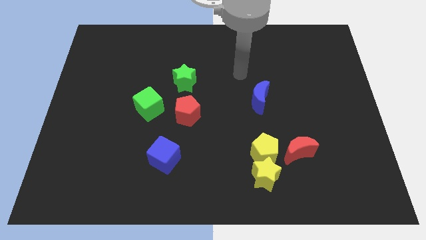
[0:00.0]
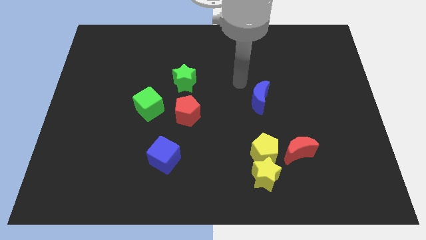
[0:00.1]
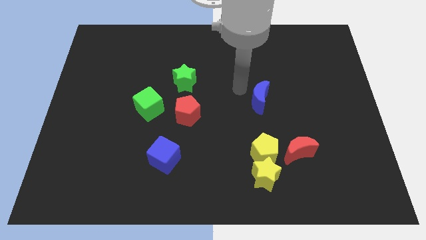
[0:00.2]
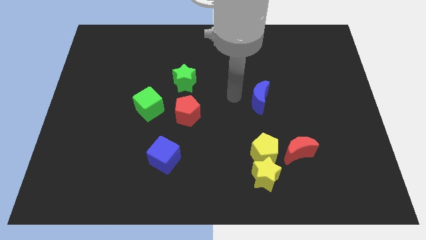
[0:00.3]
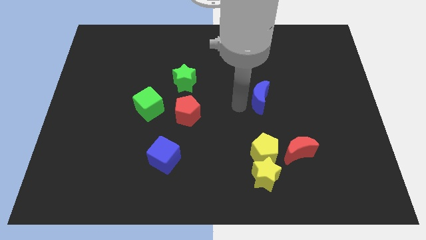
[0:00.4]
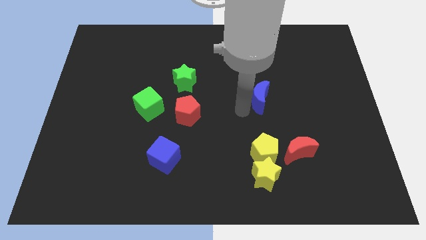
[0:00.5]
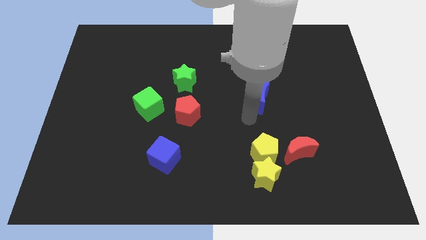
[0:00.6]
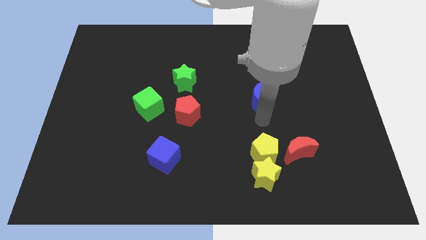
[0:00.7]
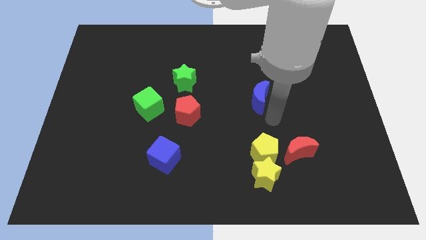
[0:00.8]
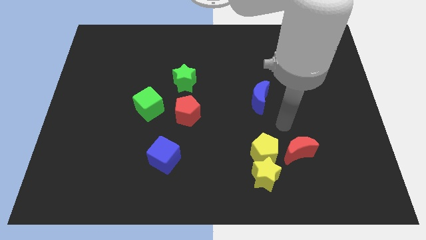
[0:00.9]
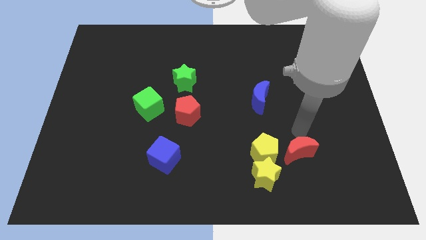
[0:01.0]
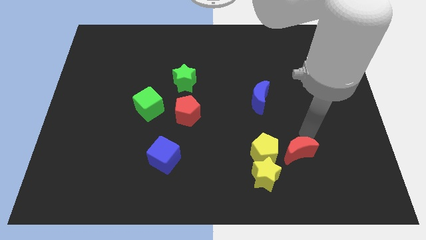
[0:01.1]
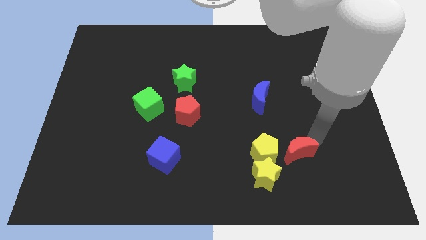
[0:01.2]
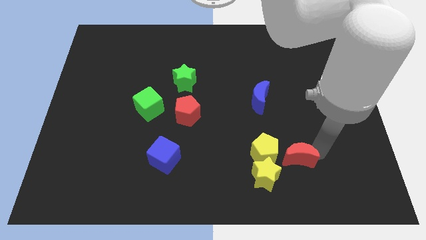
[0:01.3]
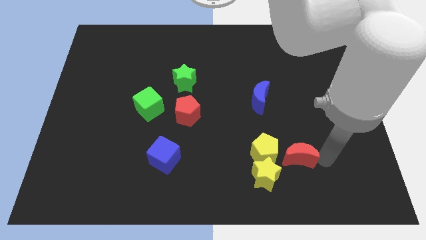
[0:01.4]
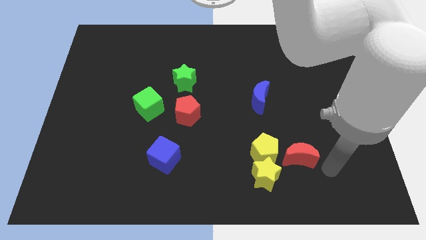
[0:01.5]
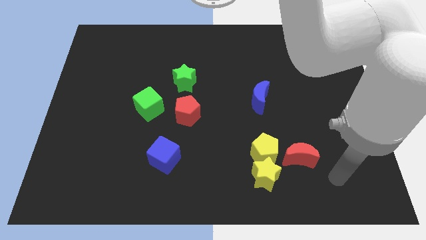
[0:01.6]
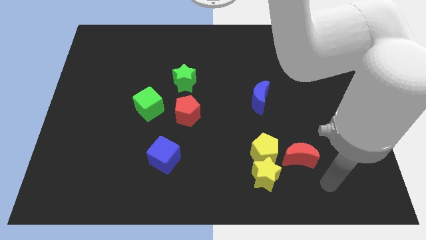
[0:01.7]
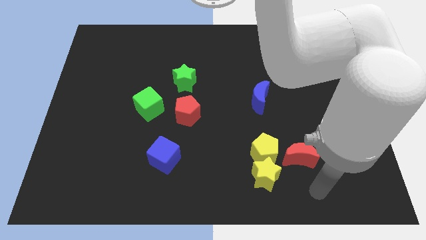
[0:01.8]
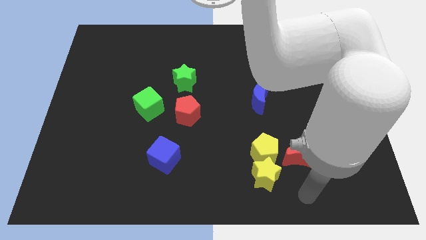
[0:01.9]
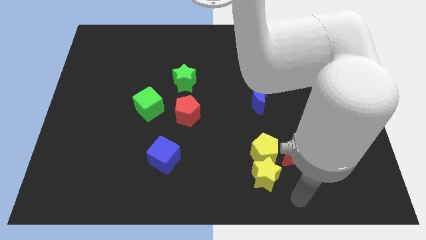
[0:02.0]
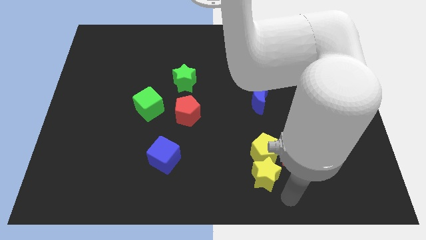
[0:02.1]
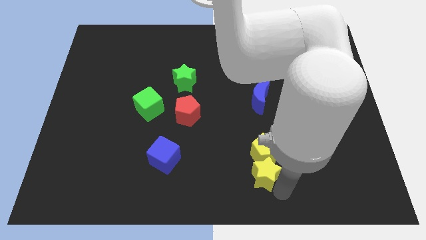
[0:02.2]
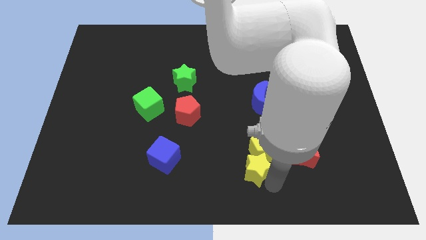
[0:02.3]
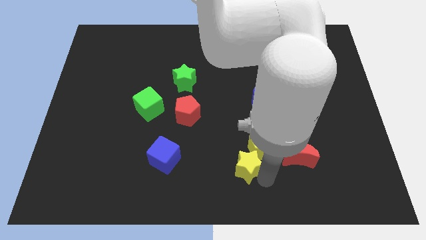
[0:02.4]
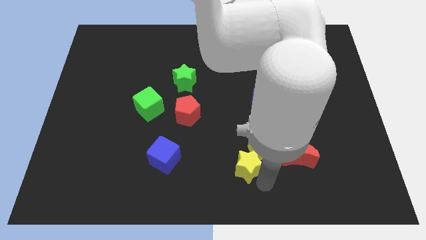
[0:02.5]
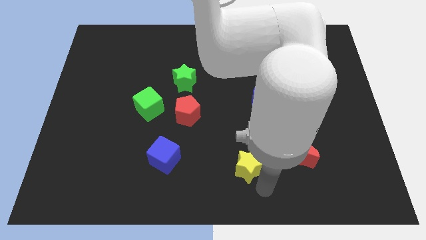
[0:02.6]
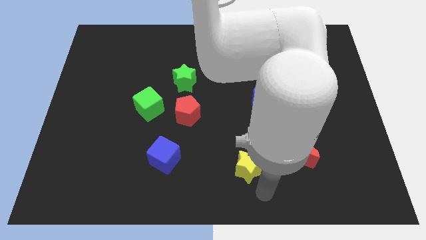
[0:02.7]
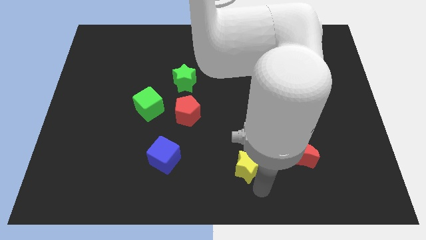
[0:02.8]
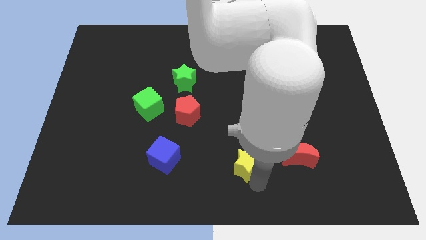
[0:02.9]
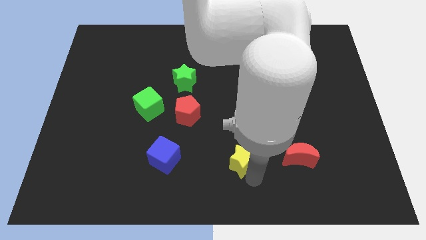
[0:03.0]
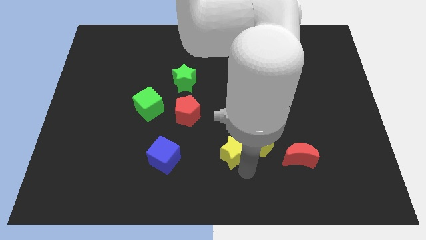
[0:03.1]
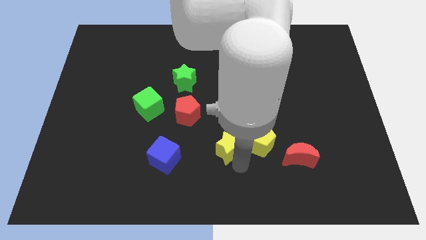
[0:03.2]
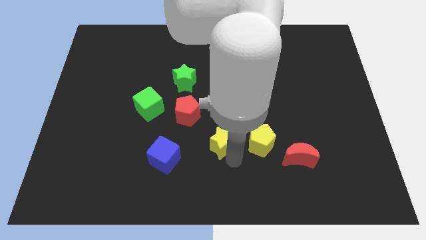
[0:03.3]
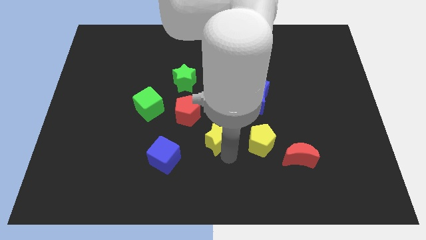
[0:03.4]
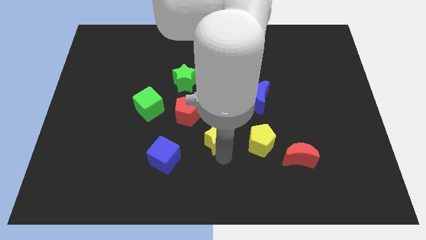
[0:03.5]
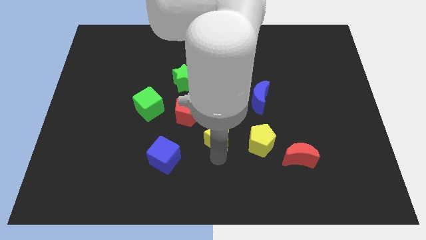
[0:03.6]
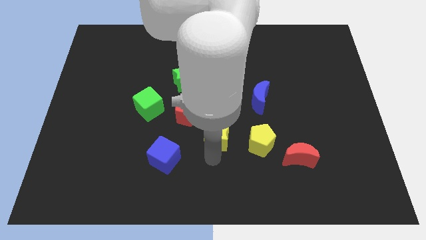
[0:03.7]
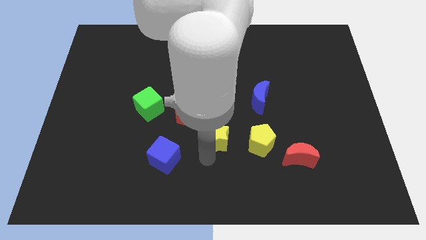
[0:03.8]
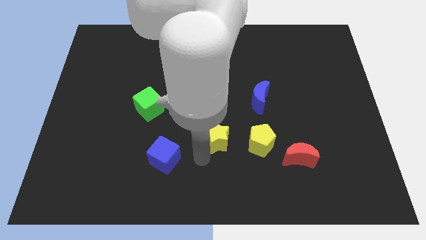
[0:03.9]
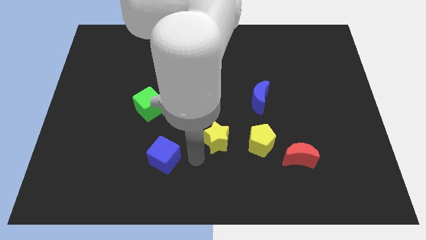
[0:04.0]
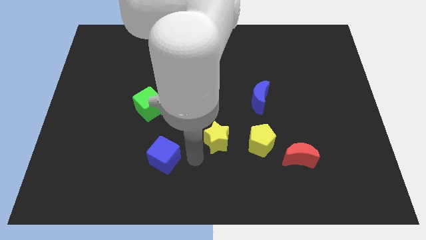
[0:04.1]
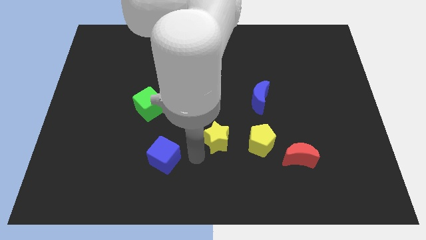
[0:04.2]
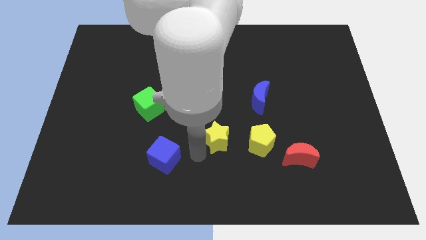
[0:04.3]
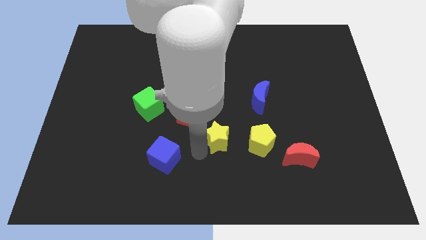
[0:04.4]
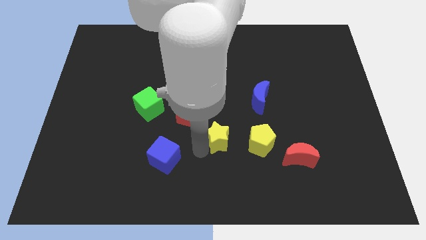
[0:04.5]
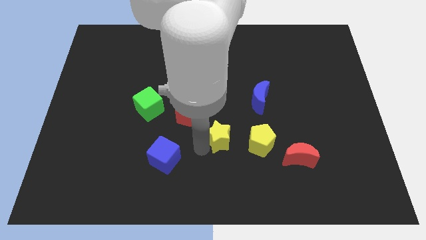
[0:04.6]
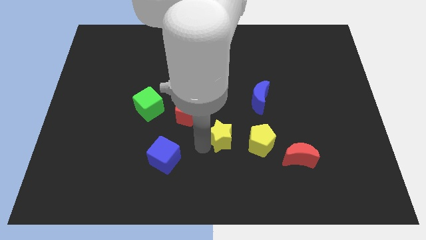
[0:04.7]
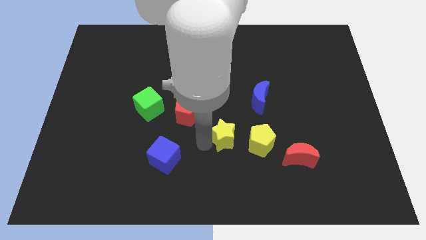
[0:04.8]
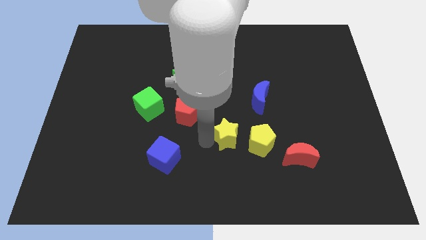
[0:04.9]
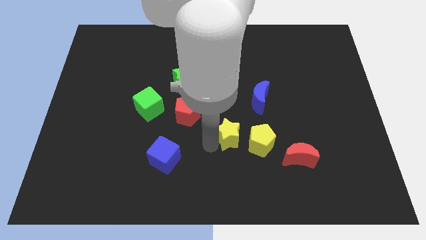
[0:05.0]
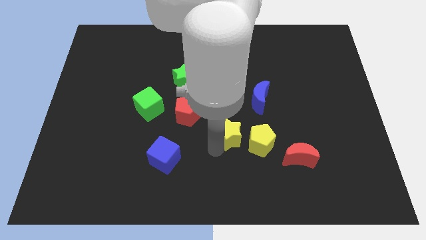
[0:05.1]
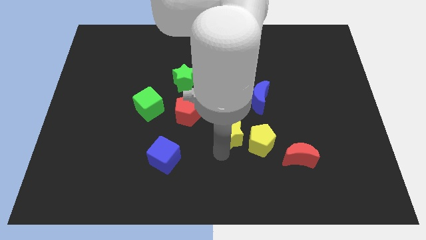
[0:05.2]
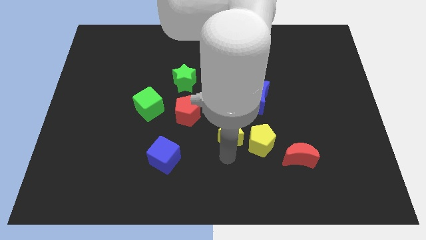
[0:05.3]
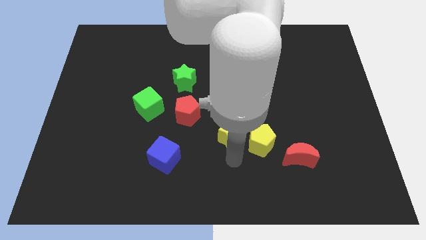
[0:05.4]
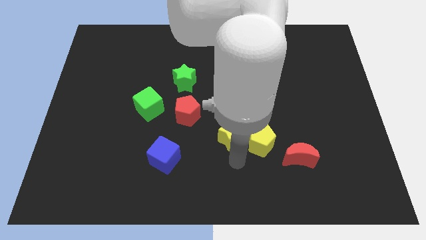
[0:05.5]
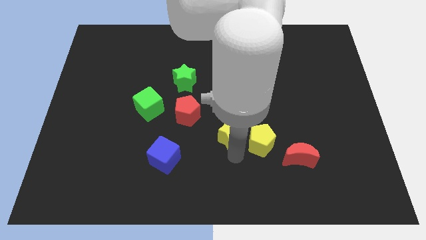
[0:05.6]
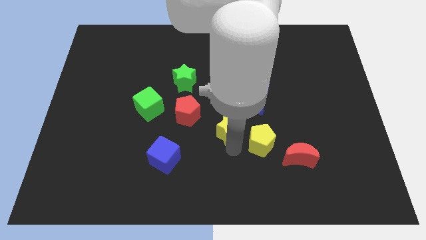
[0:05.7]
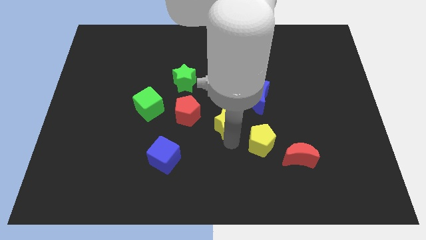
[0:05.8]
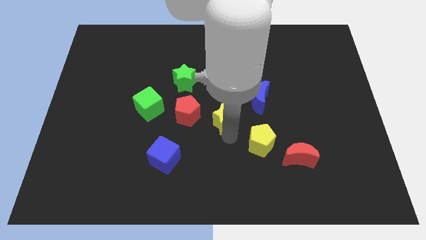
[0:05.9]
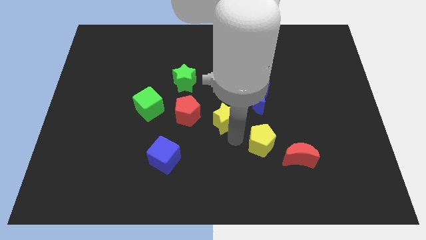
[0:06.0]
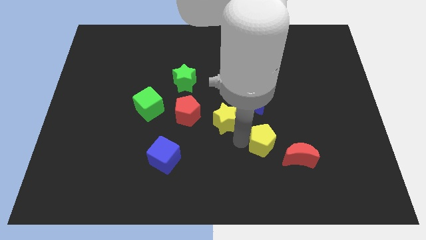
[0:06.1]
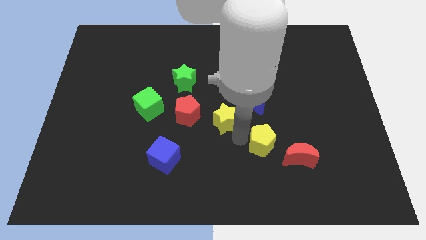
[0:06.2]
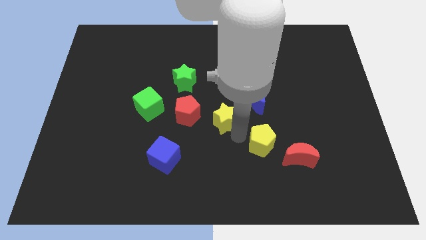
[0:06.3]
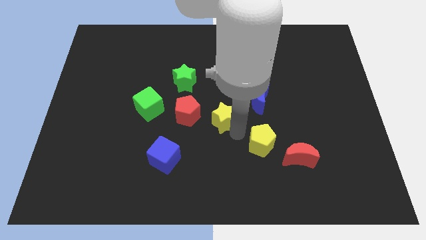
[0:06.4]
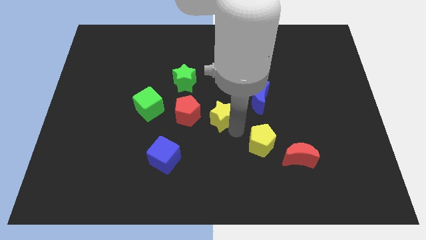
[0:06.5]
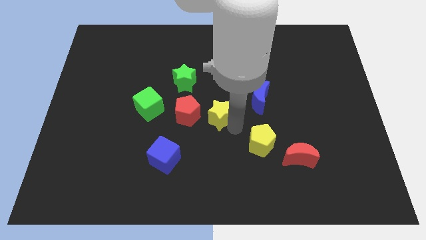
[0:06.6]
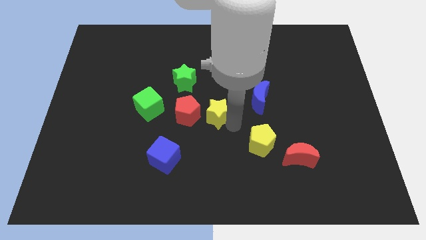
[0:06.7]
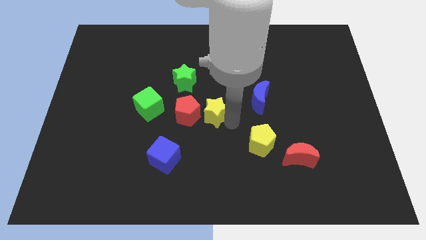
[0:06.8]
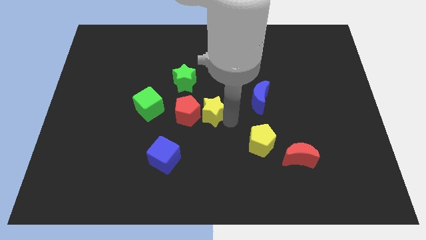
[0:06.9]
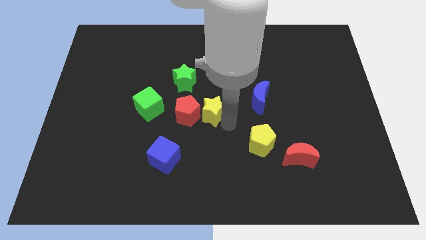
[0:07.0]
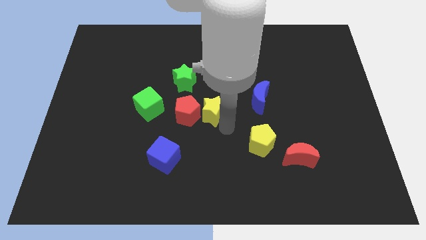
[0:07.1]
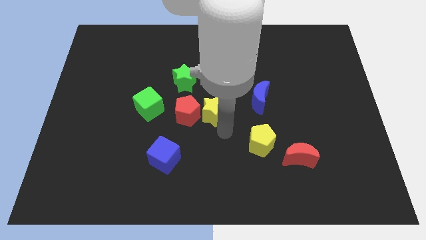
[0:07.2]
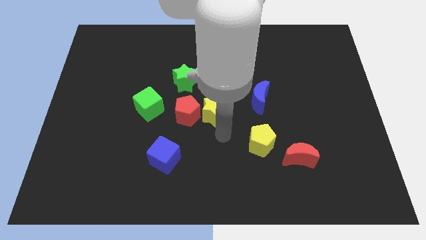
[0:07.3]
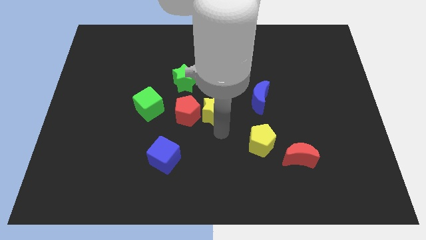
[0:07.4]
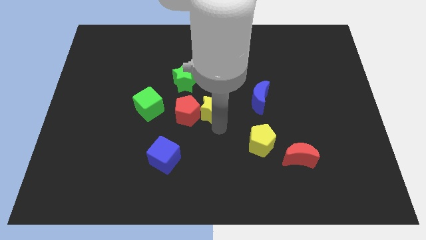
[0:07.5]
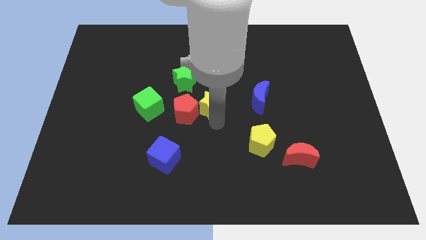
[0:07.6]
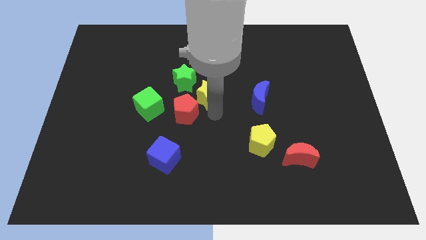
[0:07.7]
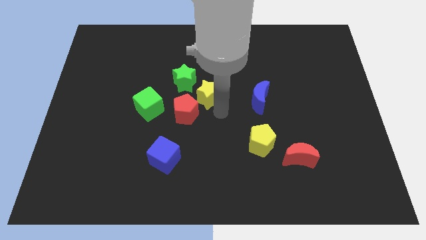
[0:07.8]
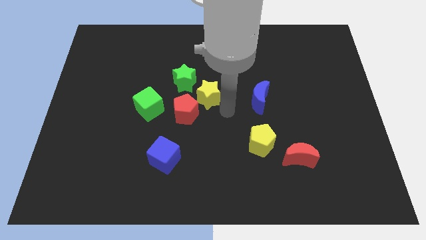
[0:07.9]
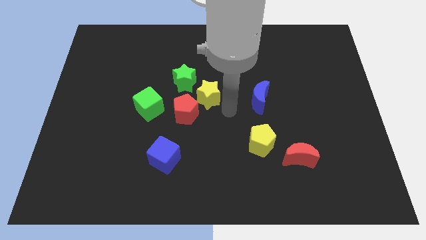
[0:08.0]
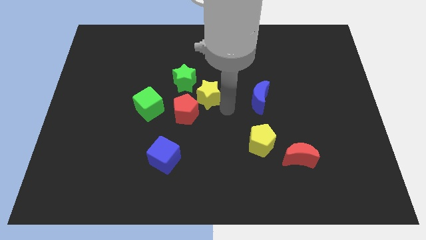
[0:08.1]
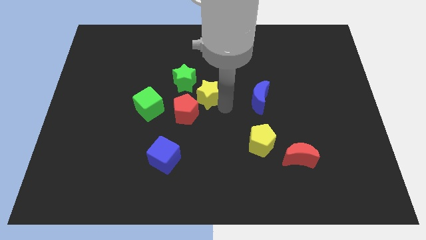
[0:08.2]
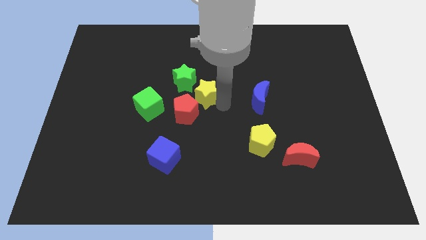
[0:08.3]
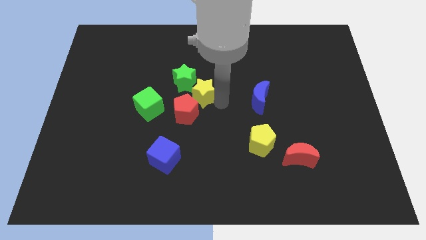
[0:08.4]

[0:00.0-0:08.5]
push the yellow star close to the green star
